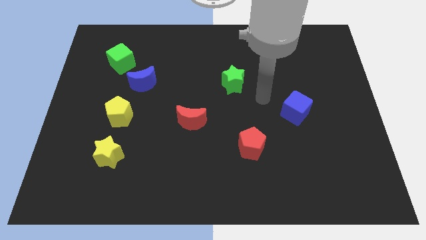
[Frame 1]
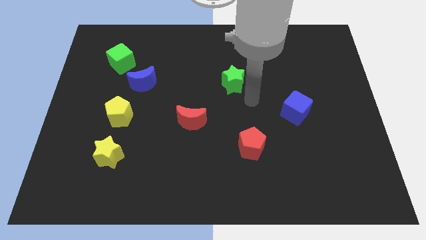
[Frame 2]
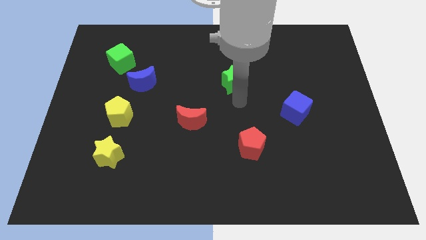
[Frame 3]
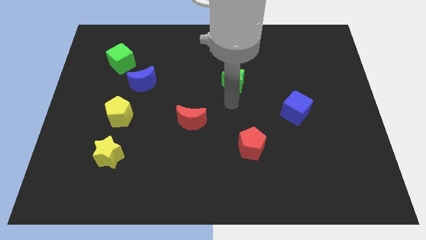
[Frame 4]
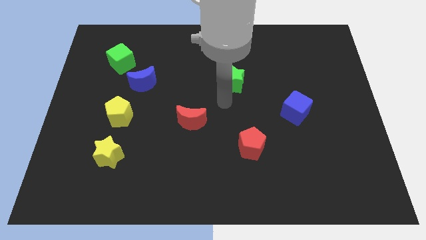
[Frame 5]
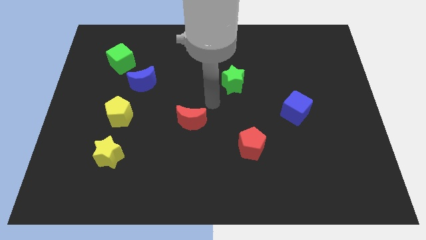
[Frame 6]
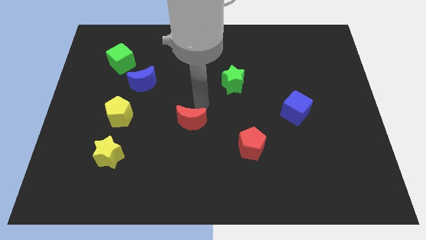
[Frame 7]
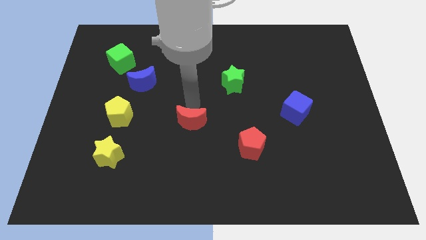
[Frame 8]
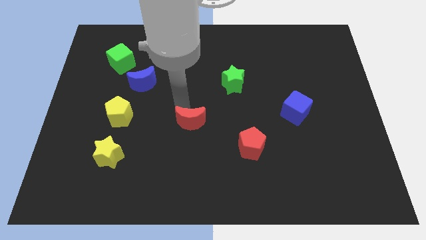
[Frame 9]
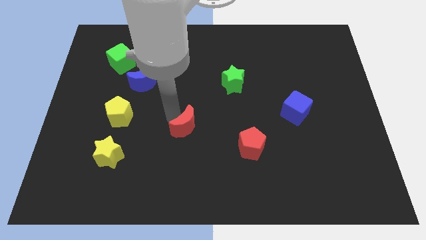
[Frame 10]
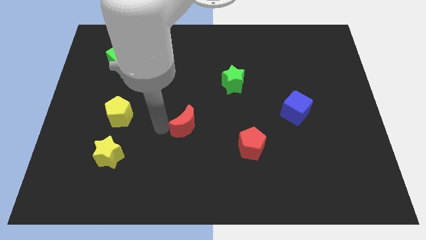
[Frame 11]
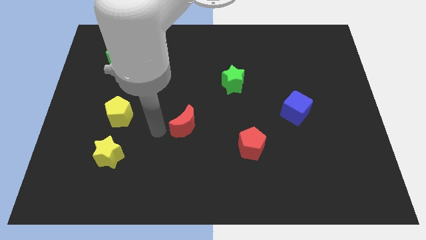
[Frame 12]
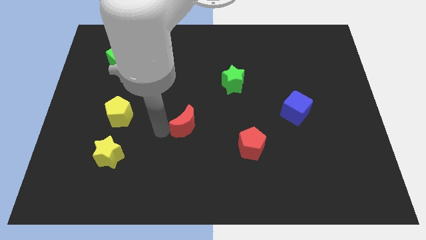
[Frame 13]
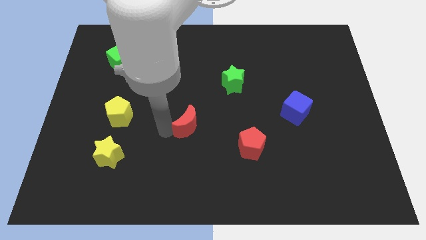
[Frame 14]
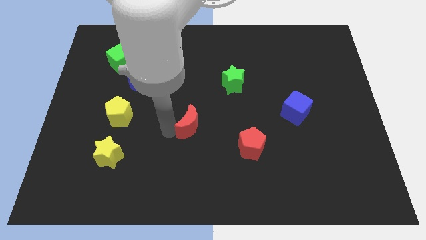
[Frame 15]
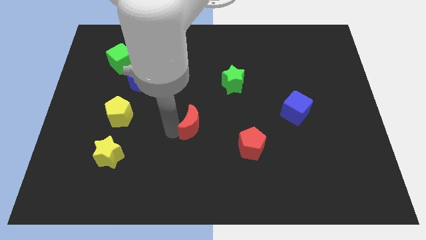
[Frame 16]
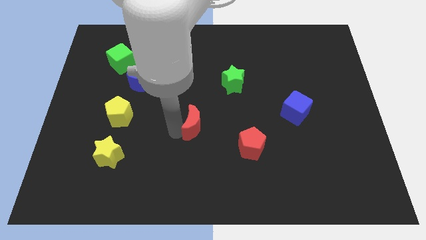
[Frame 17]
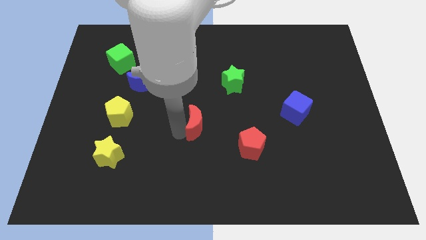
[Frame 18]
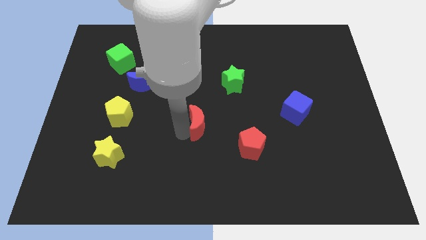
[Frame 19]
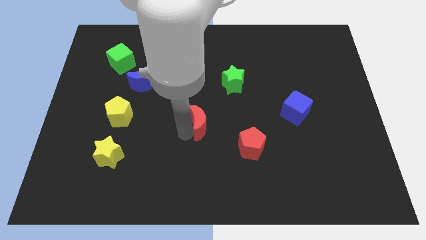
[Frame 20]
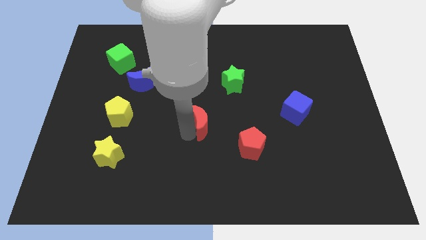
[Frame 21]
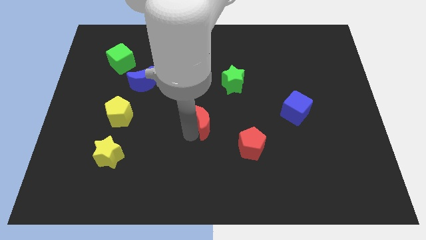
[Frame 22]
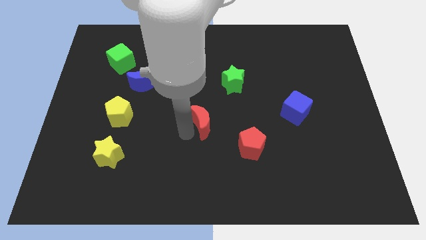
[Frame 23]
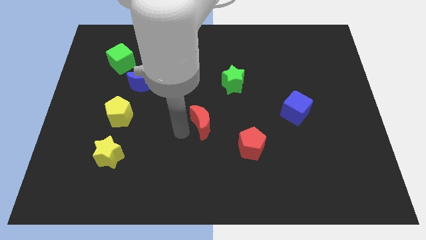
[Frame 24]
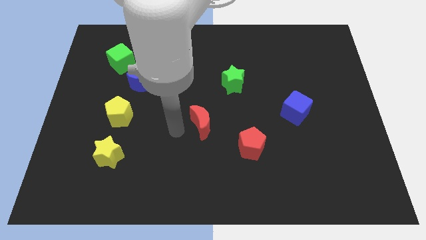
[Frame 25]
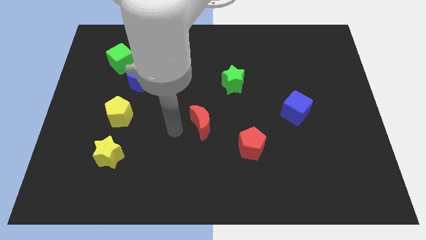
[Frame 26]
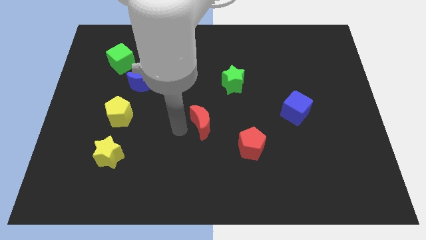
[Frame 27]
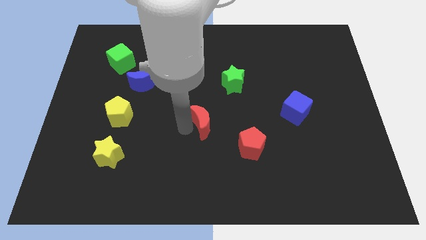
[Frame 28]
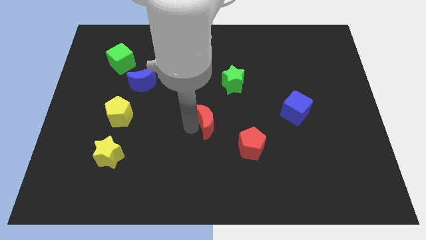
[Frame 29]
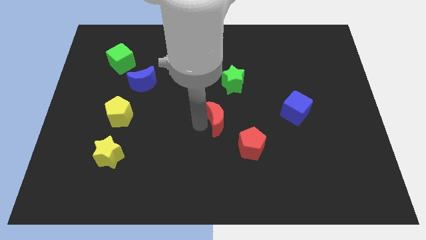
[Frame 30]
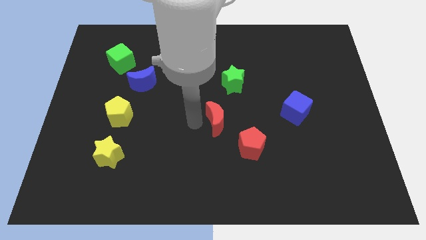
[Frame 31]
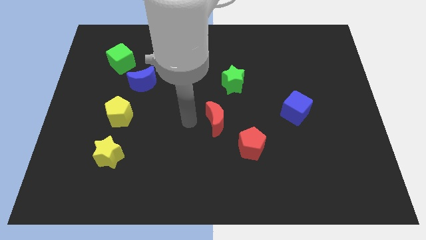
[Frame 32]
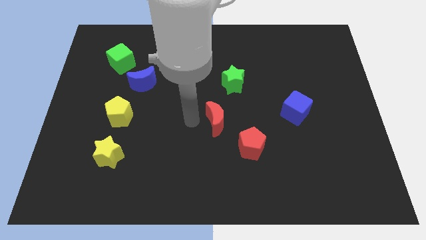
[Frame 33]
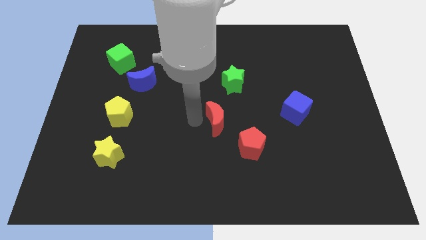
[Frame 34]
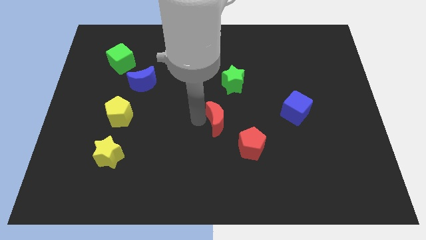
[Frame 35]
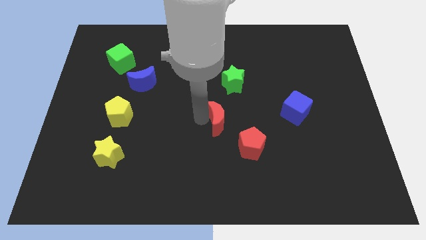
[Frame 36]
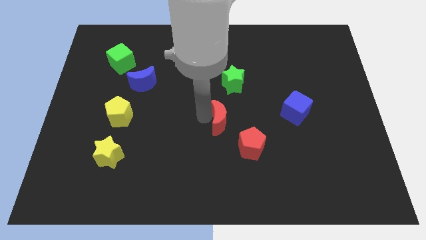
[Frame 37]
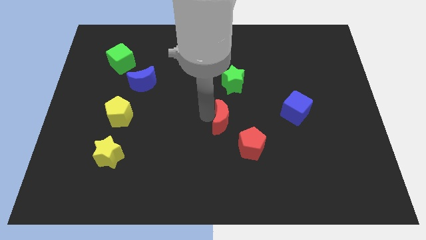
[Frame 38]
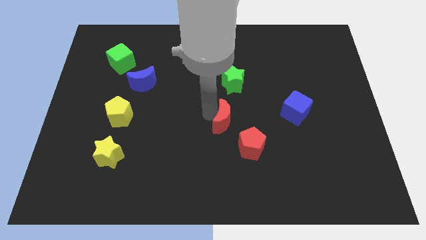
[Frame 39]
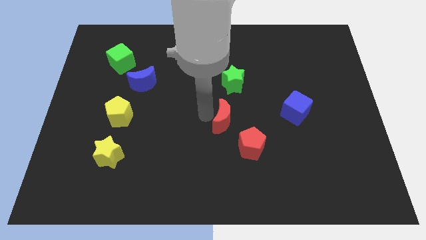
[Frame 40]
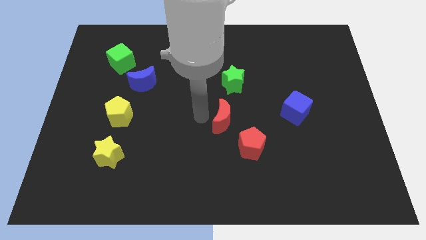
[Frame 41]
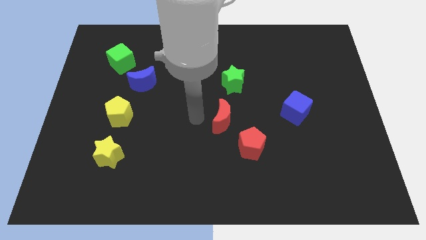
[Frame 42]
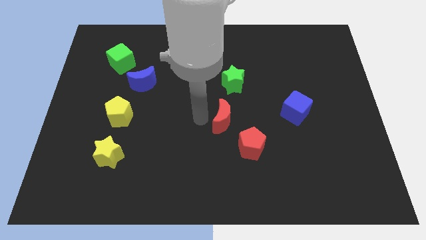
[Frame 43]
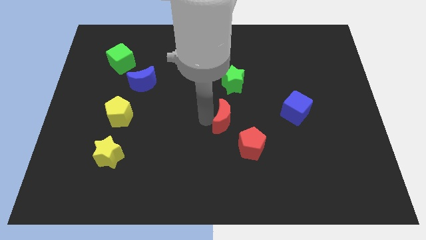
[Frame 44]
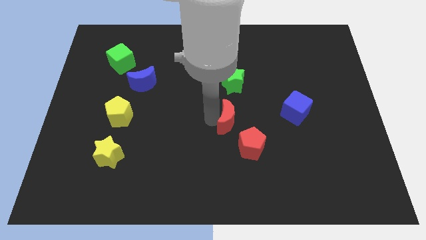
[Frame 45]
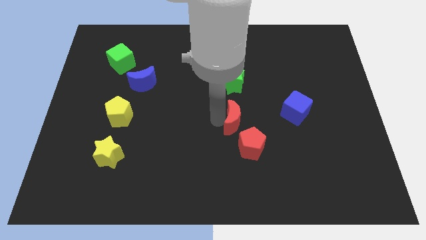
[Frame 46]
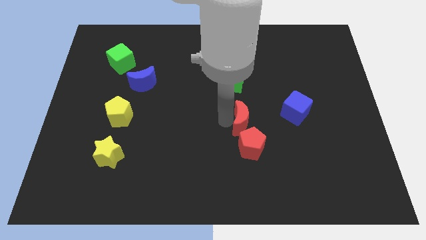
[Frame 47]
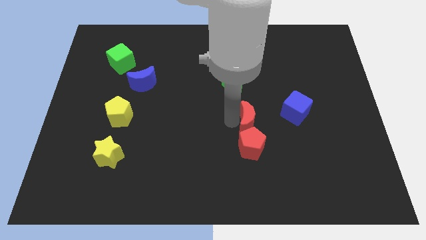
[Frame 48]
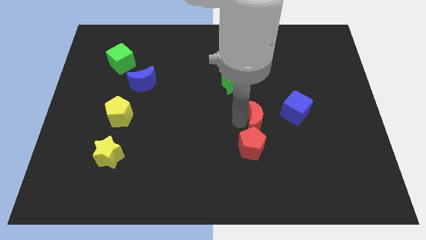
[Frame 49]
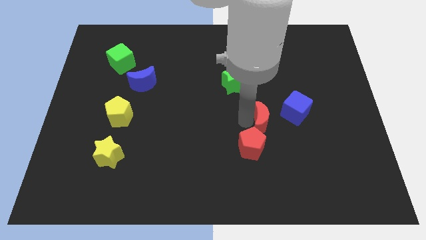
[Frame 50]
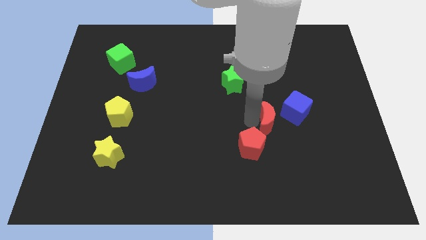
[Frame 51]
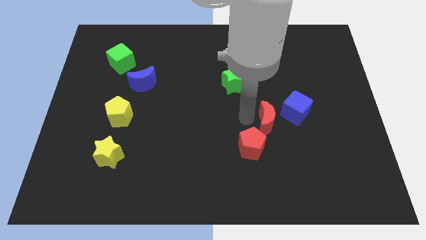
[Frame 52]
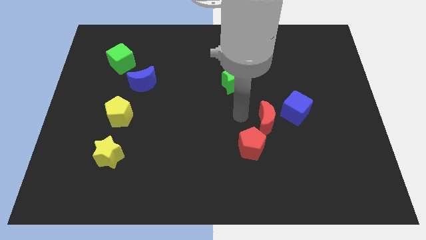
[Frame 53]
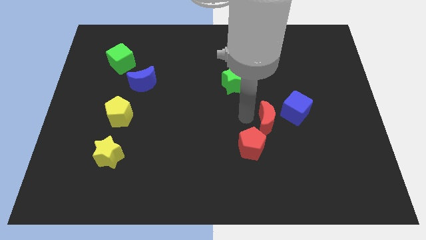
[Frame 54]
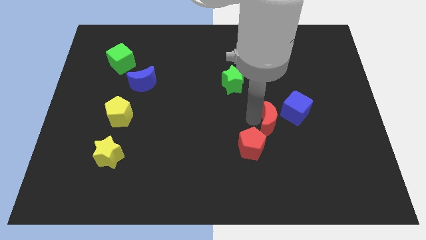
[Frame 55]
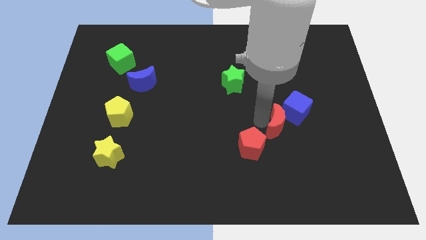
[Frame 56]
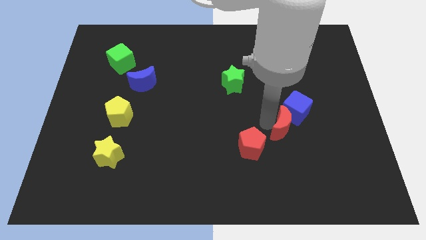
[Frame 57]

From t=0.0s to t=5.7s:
slide the red moon right

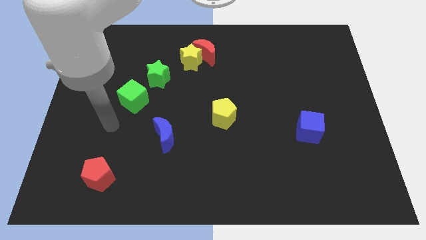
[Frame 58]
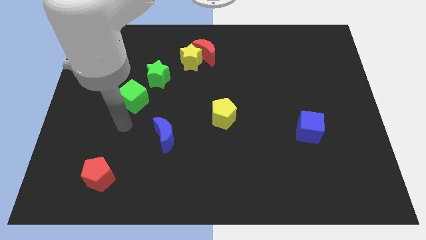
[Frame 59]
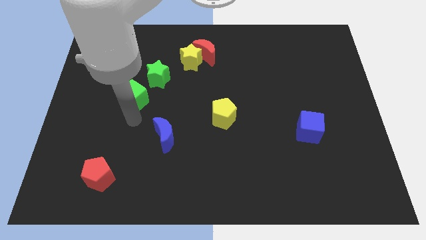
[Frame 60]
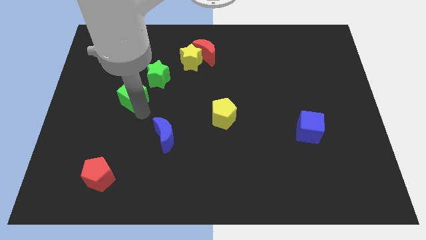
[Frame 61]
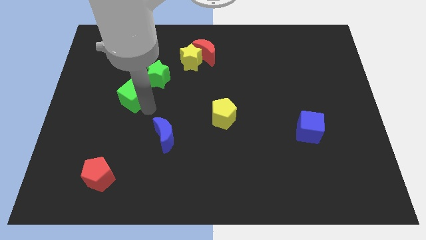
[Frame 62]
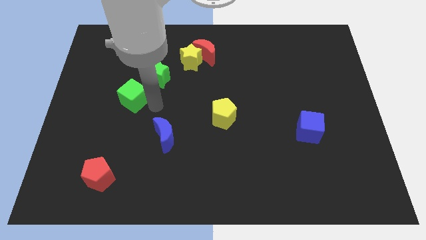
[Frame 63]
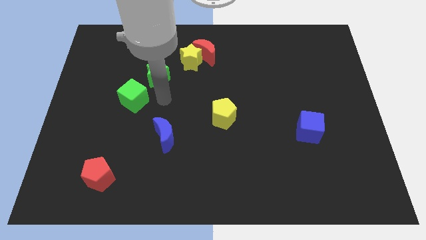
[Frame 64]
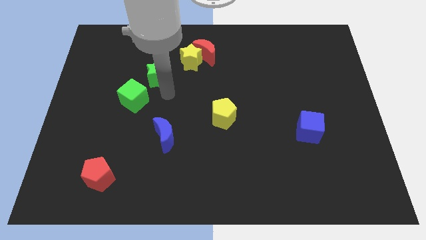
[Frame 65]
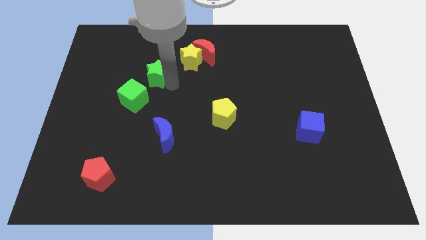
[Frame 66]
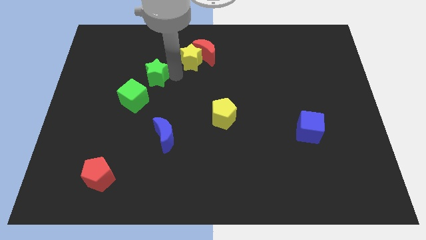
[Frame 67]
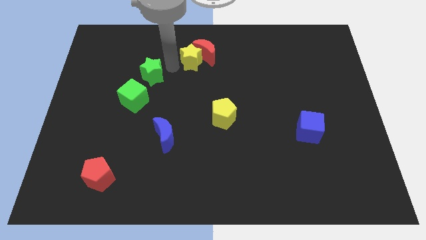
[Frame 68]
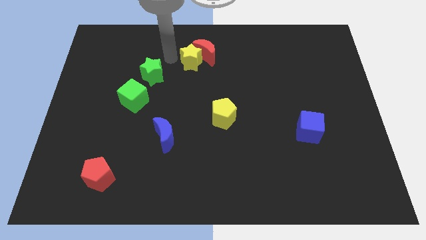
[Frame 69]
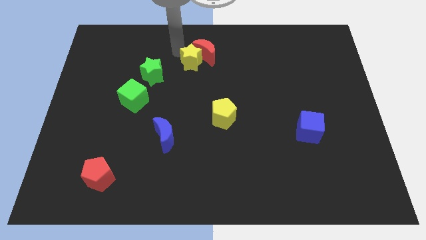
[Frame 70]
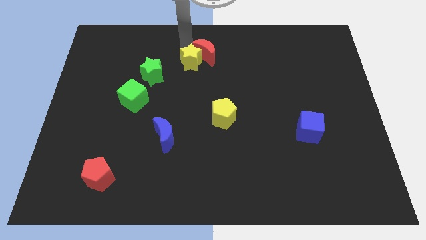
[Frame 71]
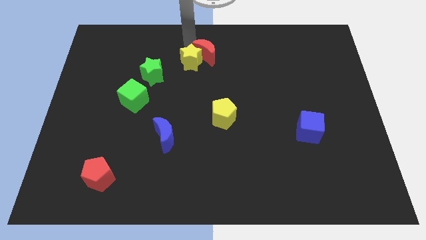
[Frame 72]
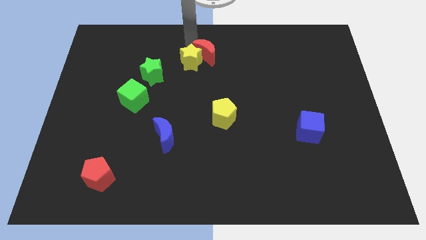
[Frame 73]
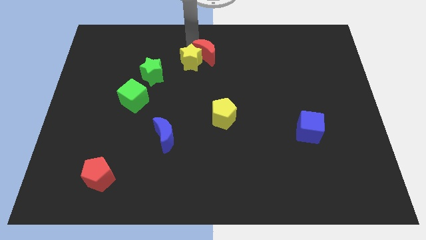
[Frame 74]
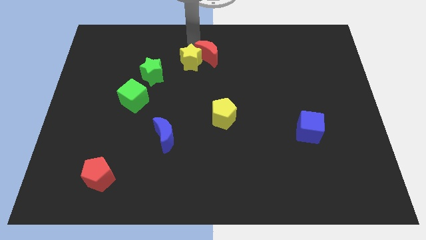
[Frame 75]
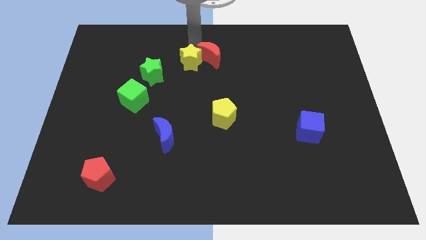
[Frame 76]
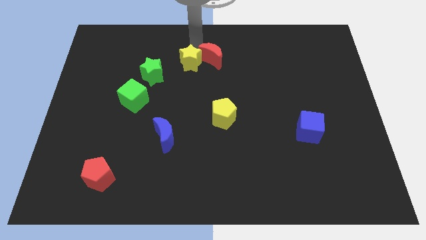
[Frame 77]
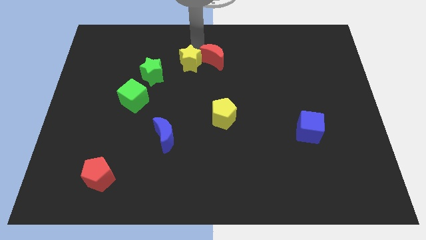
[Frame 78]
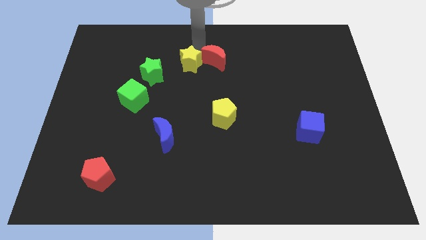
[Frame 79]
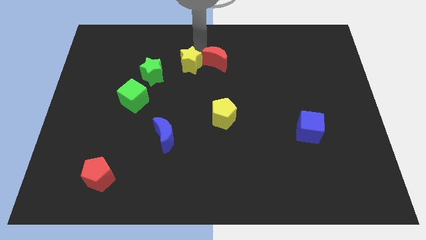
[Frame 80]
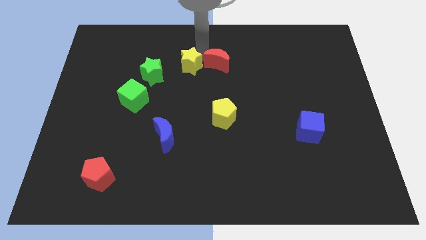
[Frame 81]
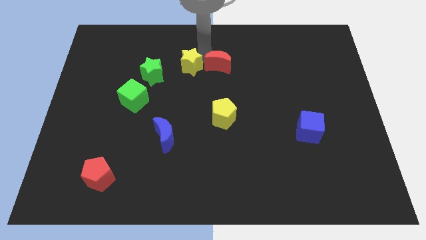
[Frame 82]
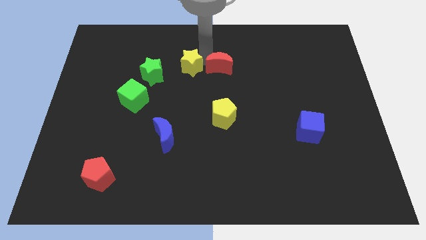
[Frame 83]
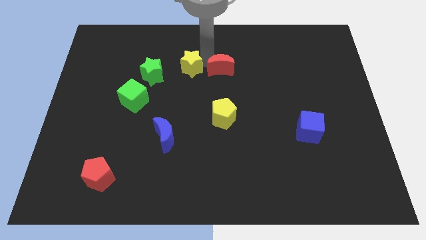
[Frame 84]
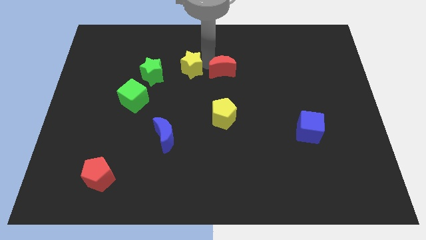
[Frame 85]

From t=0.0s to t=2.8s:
slide the red moon diagonally down and to the right a little bit
